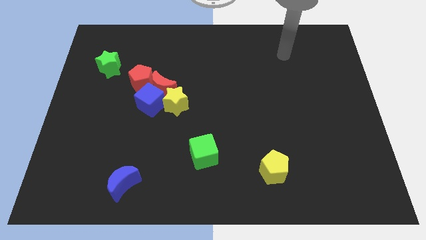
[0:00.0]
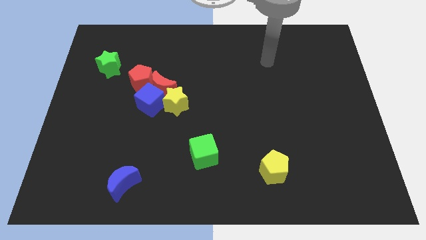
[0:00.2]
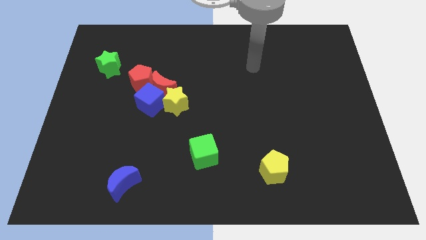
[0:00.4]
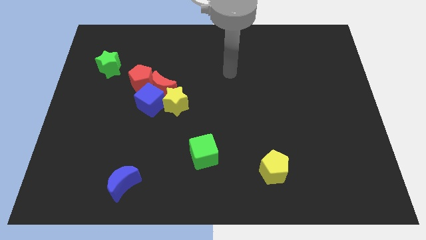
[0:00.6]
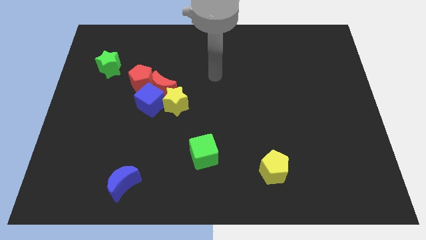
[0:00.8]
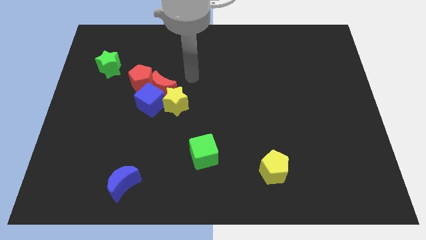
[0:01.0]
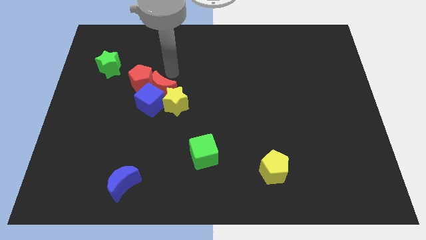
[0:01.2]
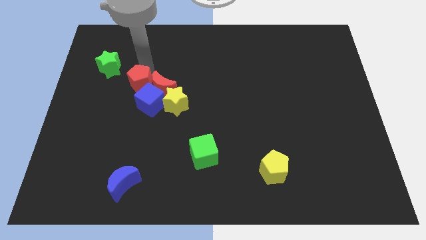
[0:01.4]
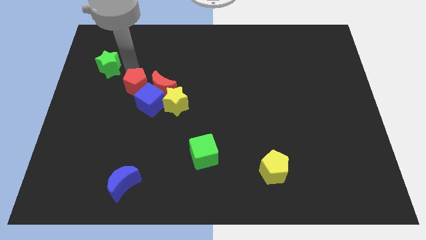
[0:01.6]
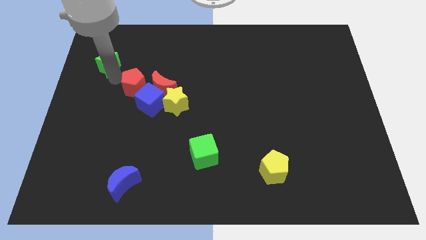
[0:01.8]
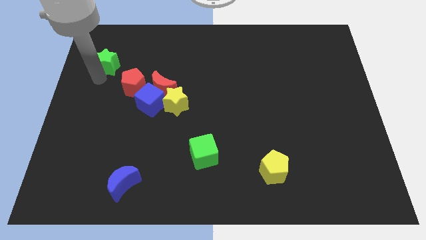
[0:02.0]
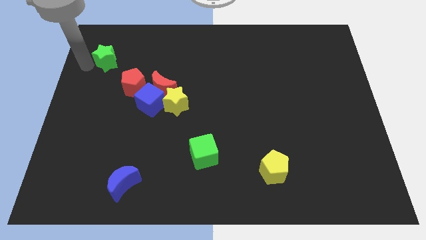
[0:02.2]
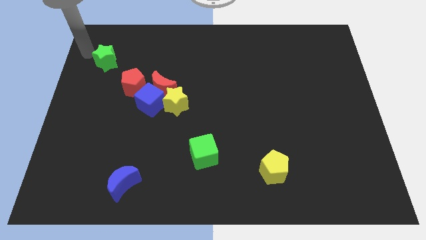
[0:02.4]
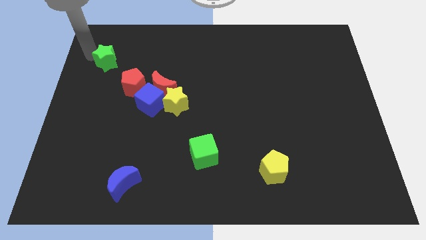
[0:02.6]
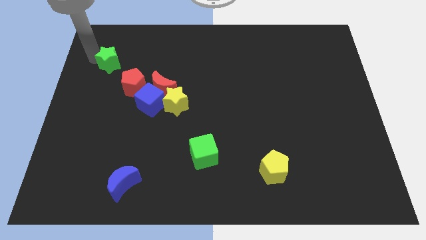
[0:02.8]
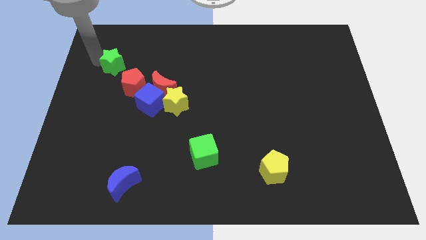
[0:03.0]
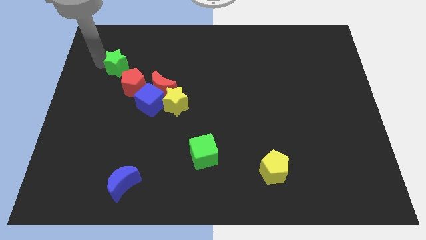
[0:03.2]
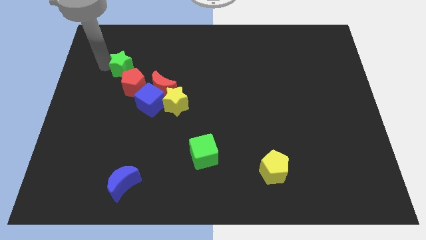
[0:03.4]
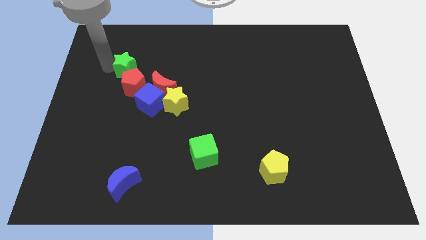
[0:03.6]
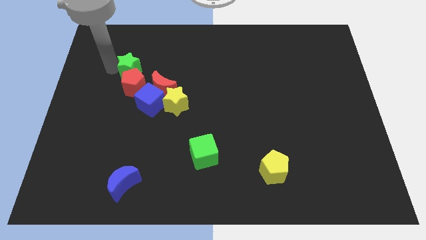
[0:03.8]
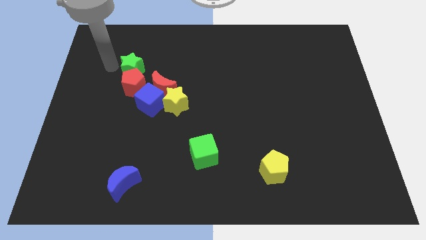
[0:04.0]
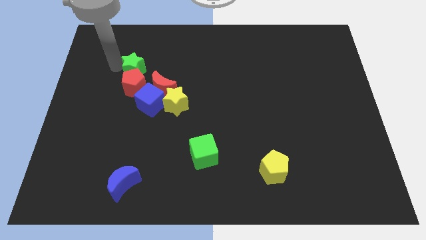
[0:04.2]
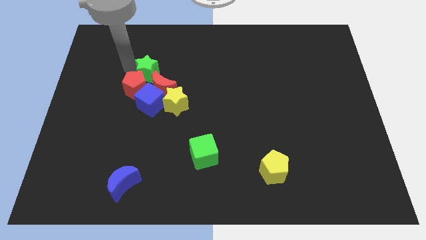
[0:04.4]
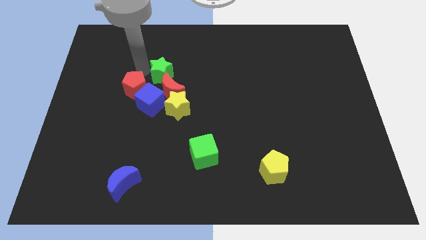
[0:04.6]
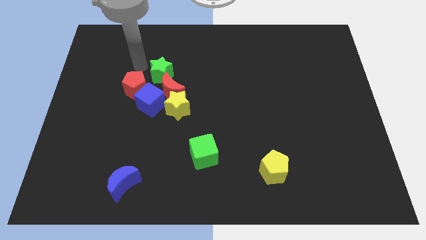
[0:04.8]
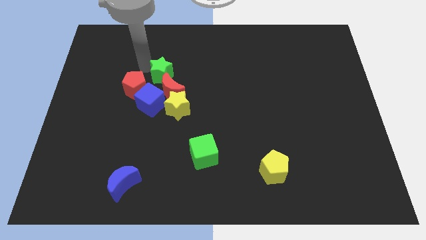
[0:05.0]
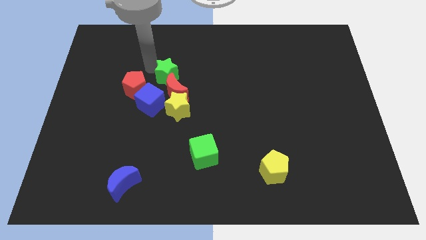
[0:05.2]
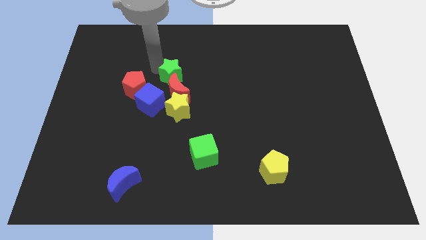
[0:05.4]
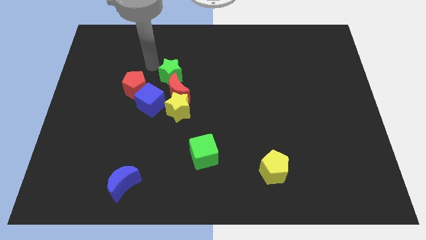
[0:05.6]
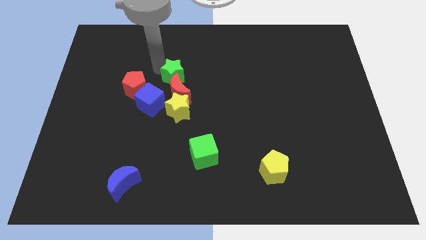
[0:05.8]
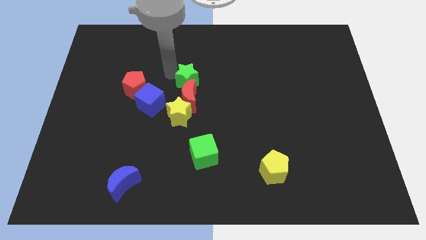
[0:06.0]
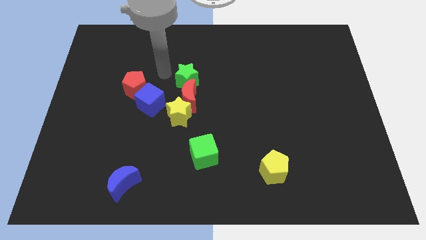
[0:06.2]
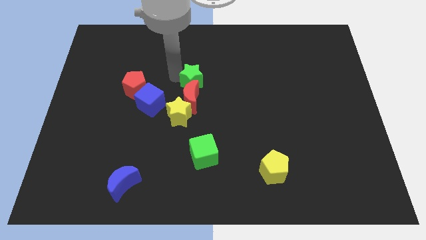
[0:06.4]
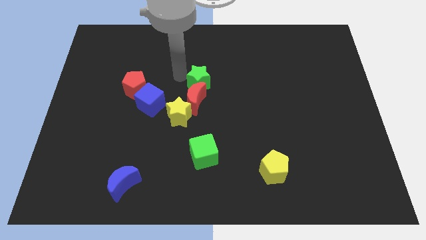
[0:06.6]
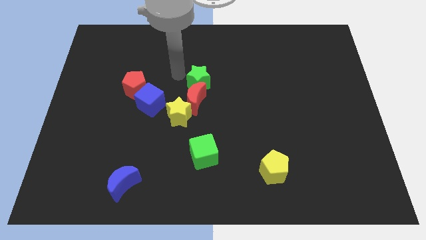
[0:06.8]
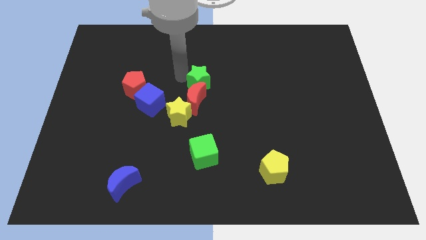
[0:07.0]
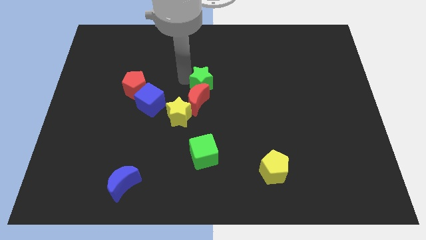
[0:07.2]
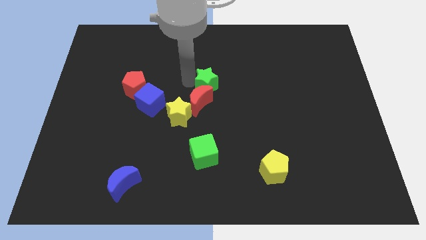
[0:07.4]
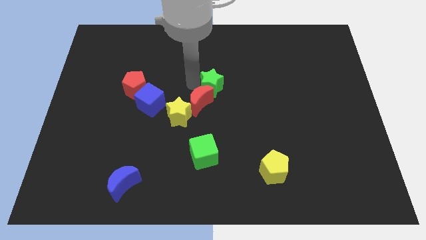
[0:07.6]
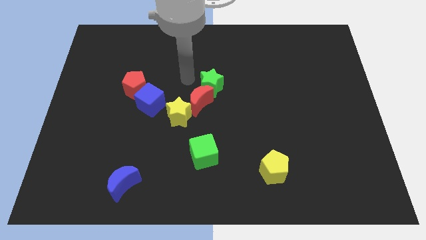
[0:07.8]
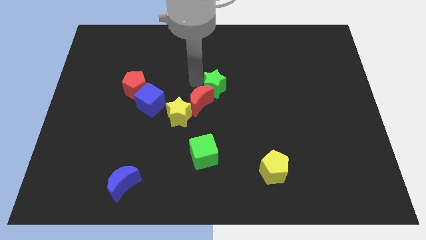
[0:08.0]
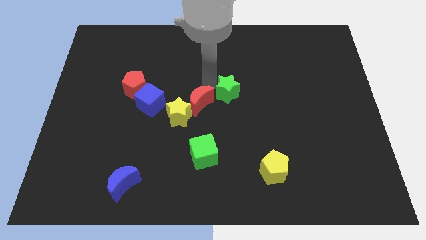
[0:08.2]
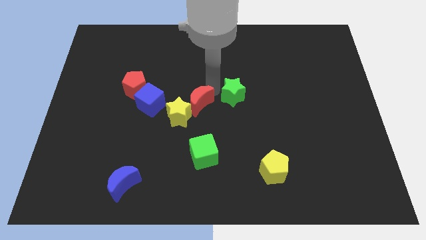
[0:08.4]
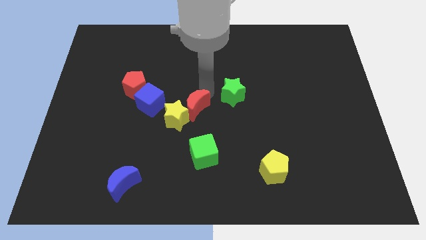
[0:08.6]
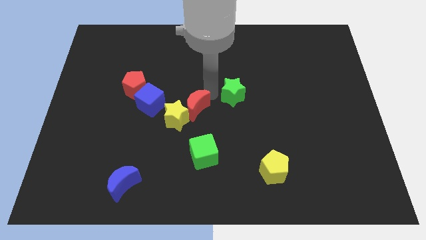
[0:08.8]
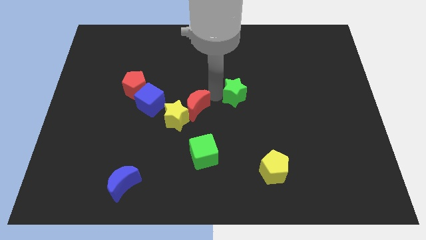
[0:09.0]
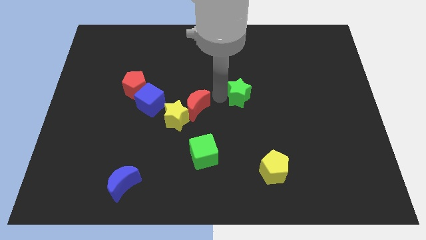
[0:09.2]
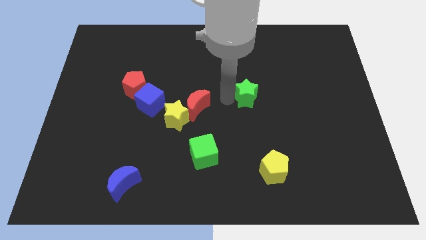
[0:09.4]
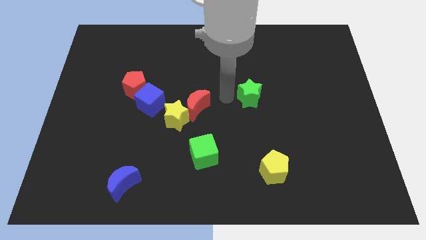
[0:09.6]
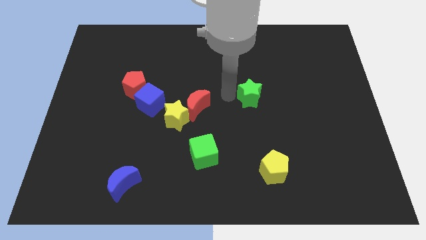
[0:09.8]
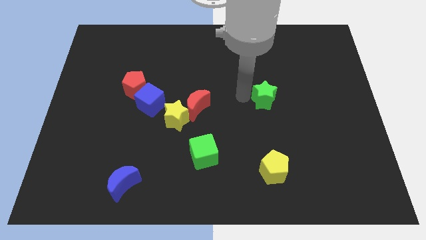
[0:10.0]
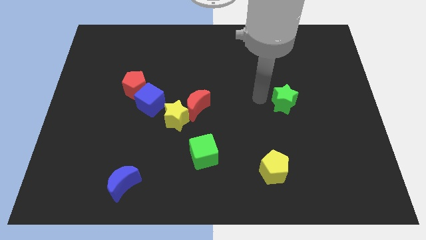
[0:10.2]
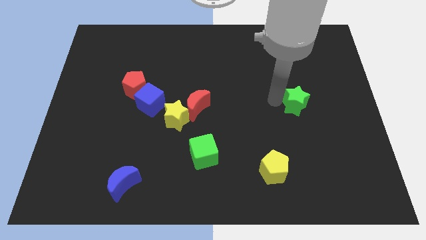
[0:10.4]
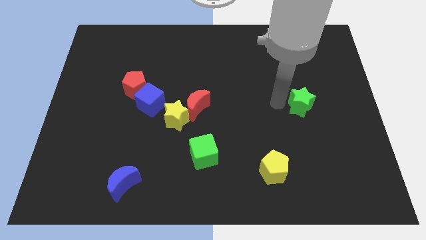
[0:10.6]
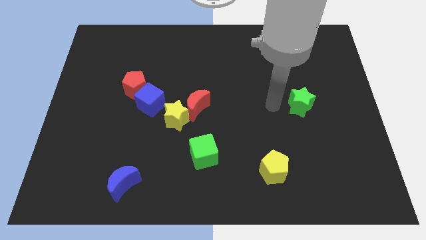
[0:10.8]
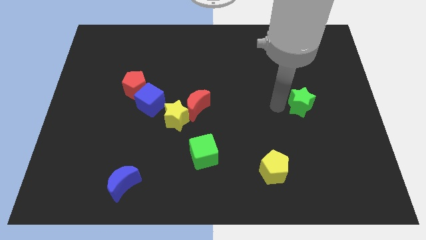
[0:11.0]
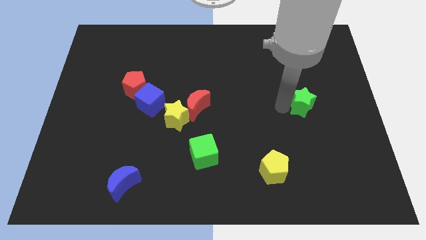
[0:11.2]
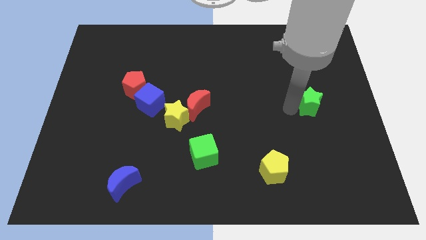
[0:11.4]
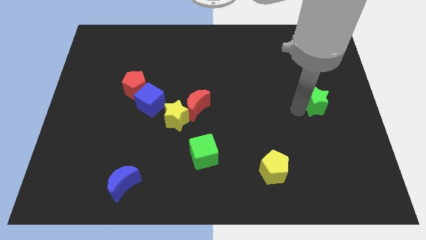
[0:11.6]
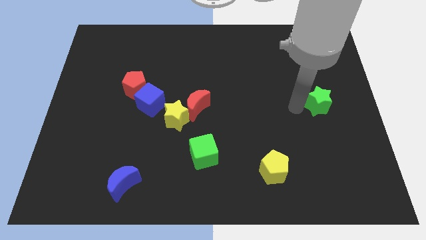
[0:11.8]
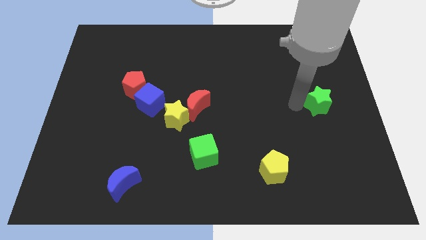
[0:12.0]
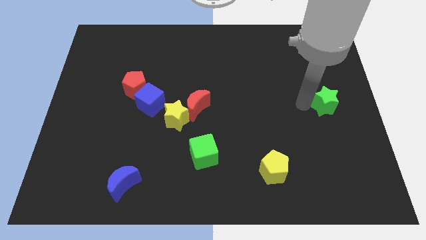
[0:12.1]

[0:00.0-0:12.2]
slide the green star to the center right

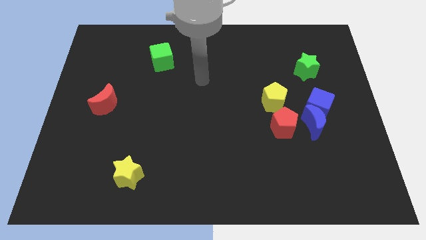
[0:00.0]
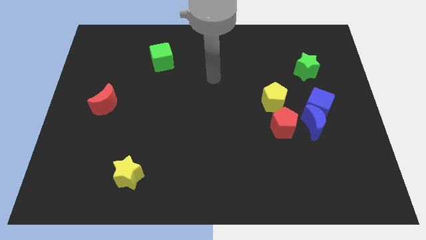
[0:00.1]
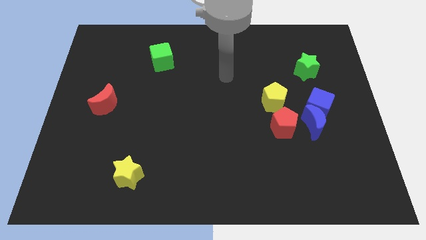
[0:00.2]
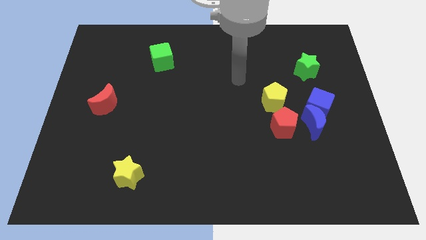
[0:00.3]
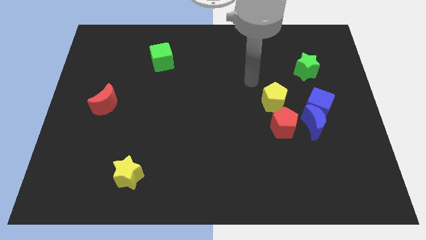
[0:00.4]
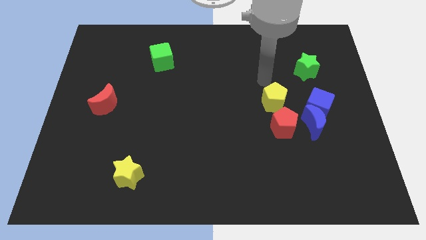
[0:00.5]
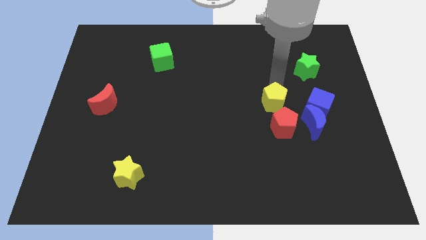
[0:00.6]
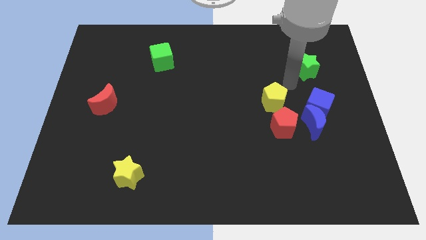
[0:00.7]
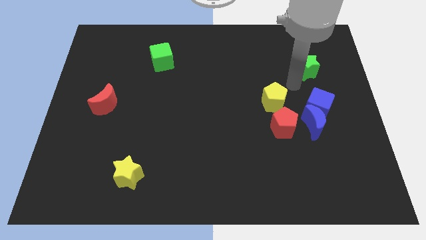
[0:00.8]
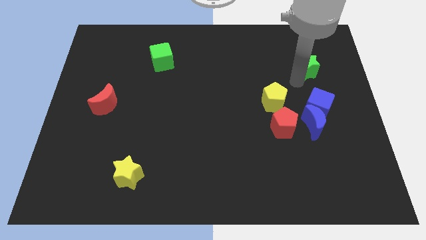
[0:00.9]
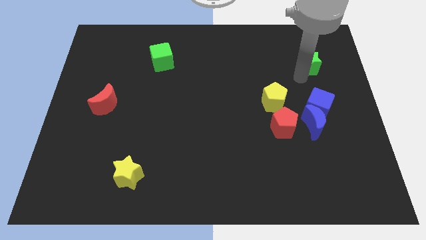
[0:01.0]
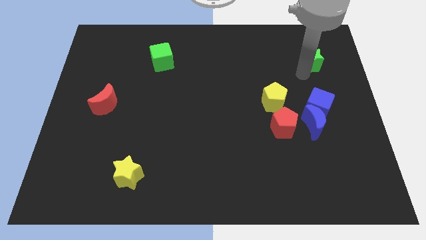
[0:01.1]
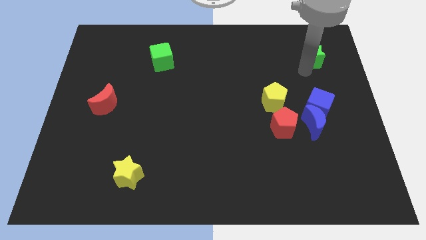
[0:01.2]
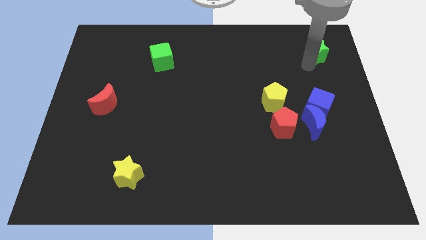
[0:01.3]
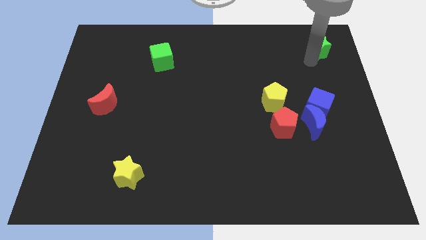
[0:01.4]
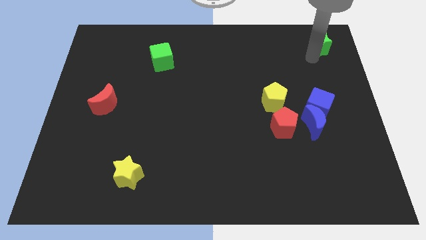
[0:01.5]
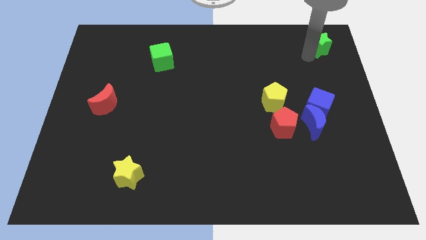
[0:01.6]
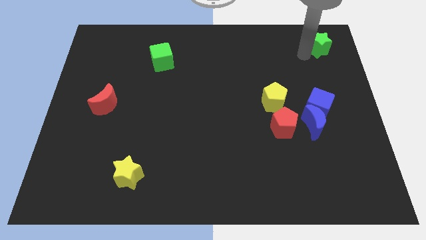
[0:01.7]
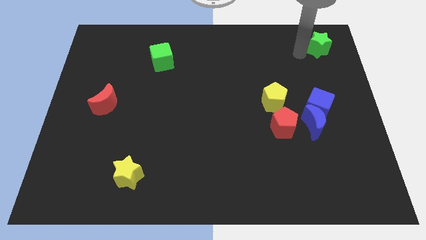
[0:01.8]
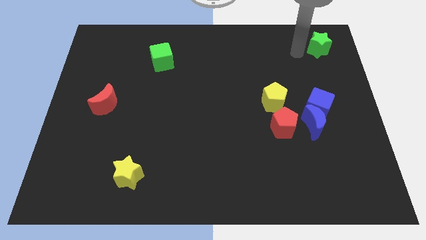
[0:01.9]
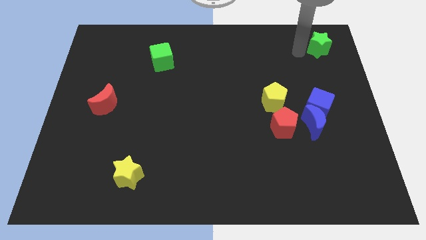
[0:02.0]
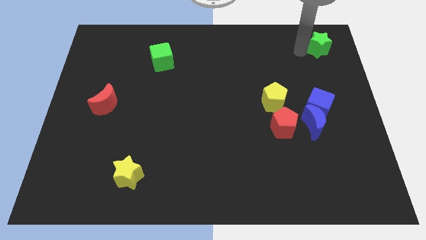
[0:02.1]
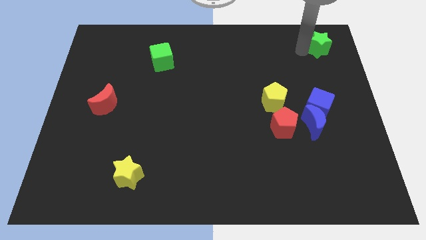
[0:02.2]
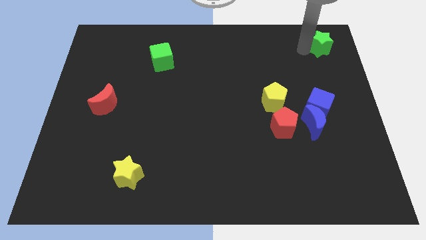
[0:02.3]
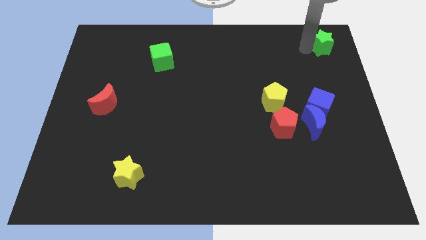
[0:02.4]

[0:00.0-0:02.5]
push the green star to the top right corner
